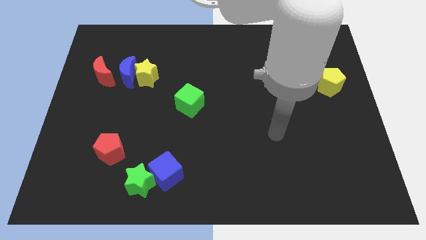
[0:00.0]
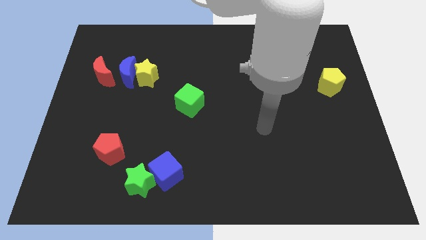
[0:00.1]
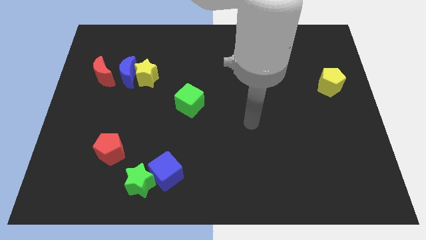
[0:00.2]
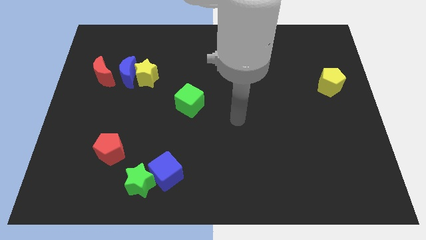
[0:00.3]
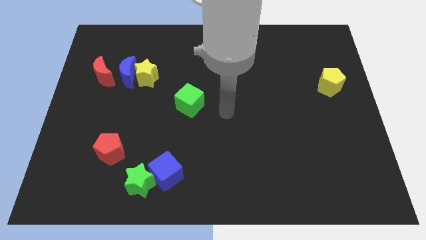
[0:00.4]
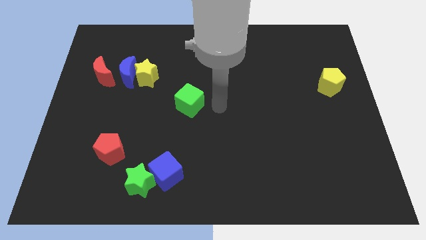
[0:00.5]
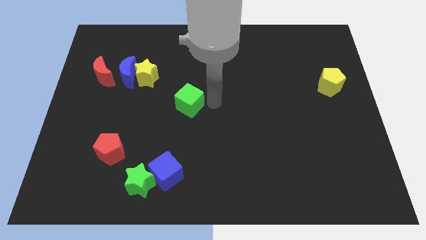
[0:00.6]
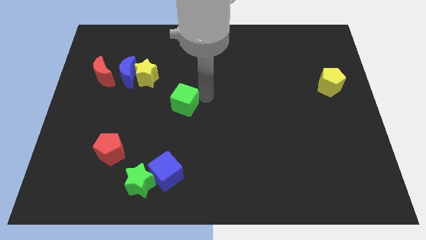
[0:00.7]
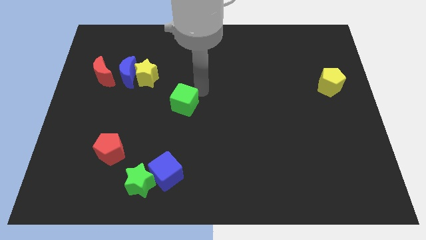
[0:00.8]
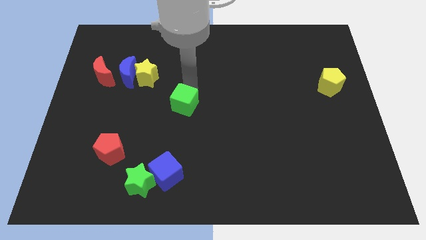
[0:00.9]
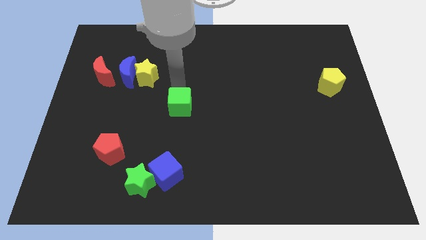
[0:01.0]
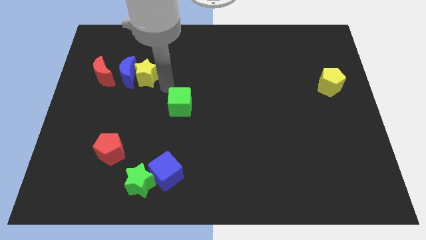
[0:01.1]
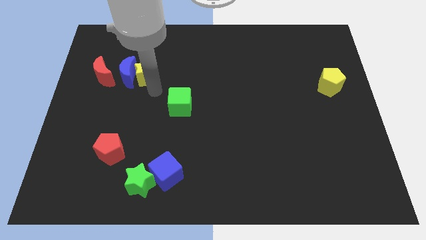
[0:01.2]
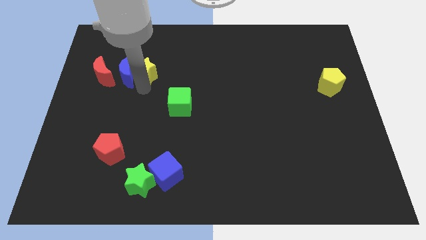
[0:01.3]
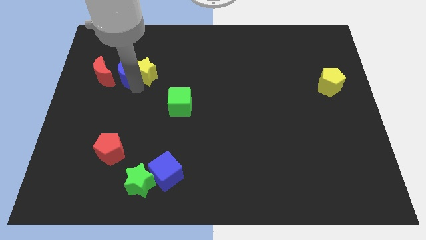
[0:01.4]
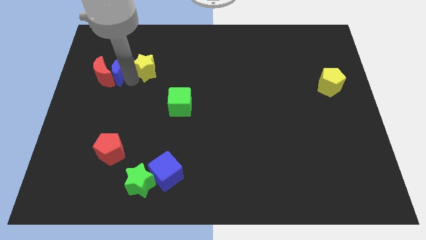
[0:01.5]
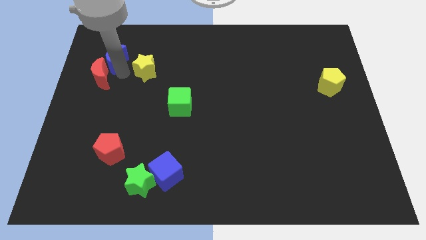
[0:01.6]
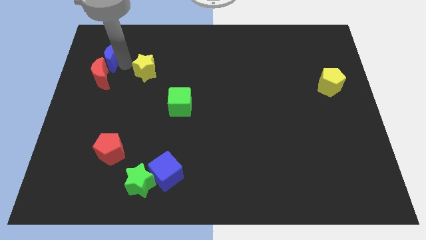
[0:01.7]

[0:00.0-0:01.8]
separate the yellow star from the blue moon

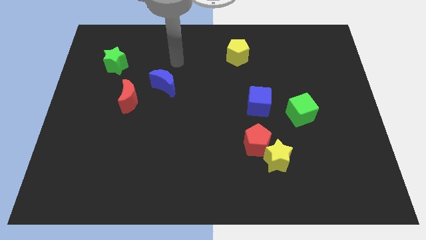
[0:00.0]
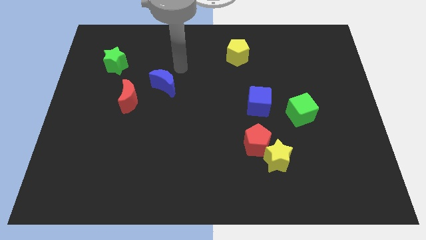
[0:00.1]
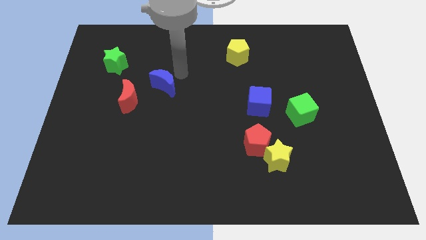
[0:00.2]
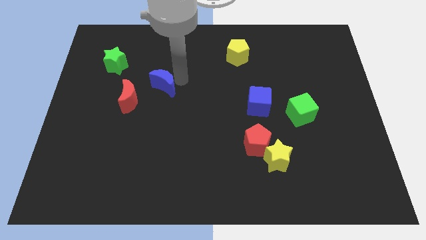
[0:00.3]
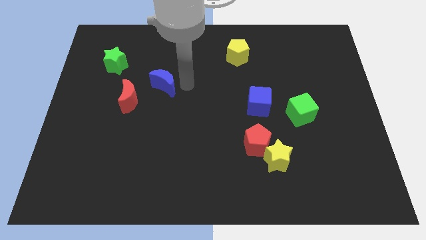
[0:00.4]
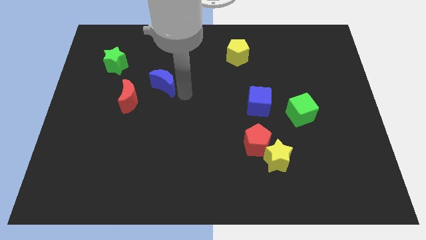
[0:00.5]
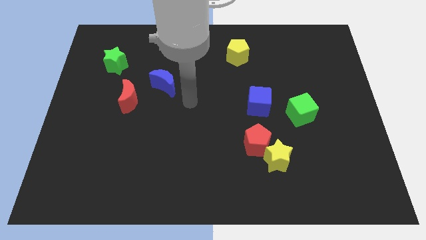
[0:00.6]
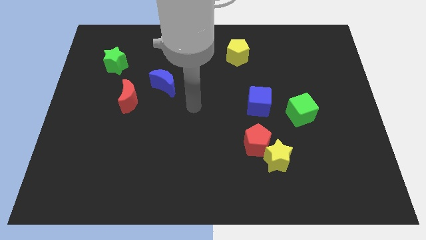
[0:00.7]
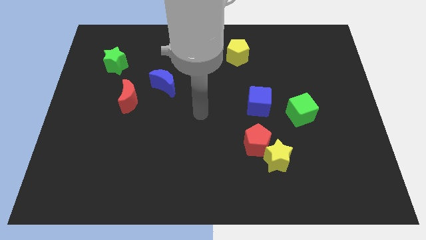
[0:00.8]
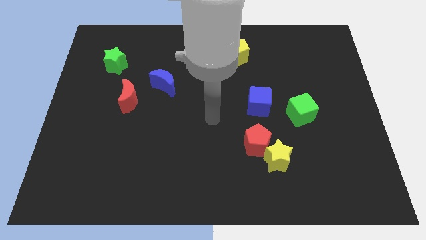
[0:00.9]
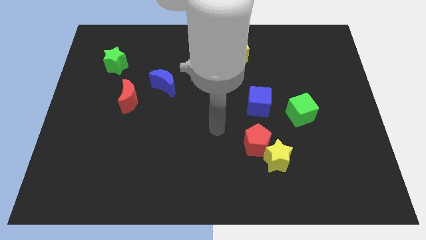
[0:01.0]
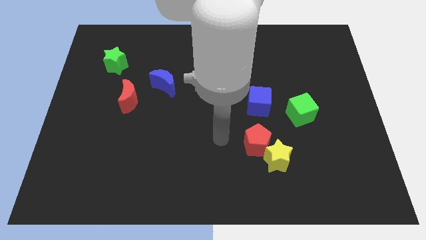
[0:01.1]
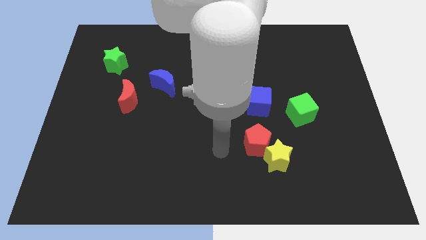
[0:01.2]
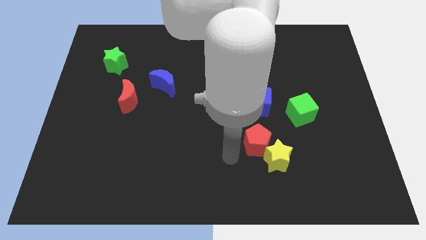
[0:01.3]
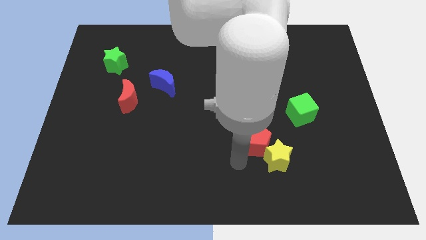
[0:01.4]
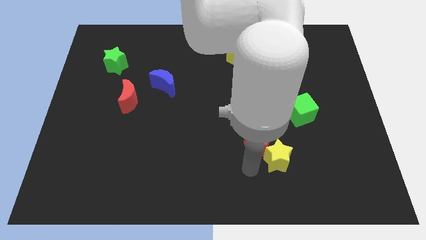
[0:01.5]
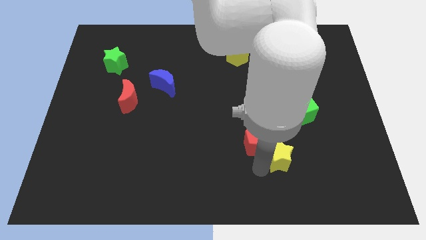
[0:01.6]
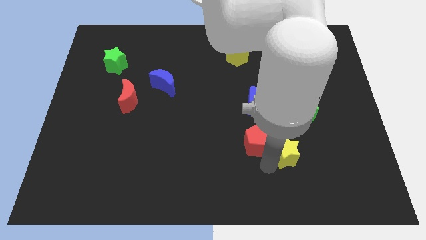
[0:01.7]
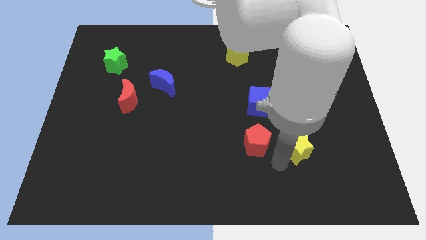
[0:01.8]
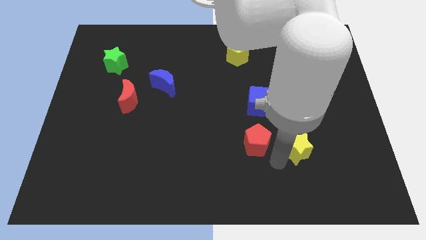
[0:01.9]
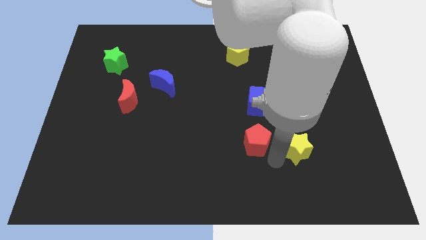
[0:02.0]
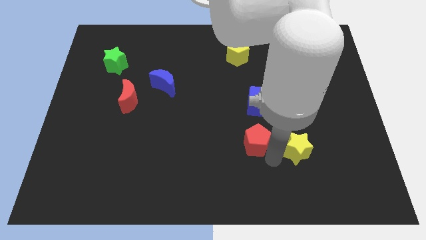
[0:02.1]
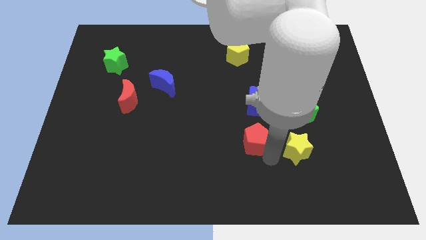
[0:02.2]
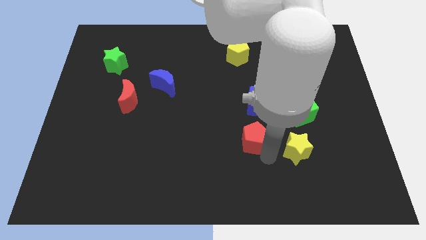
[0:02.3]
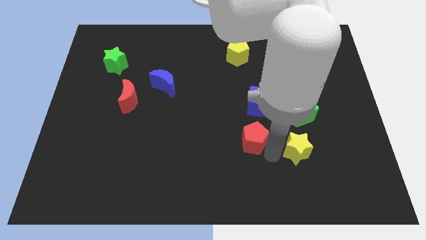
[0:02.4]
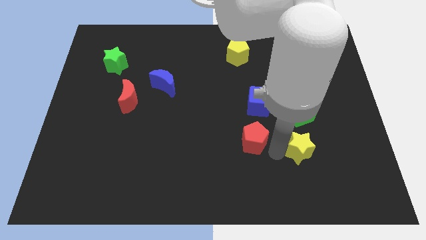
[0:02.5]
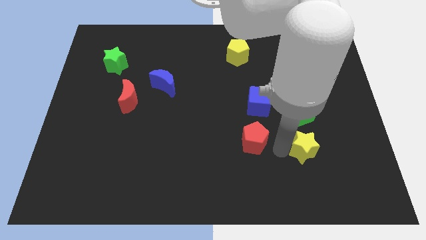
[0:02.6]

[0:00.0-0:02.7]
separate the red pentagon from the yellow star

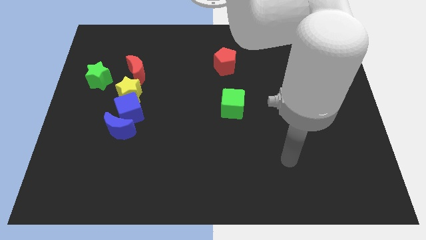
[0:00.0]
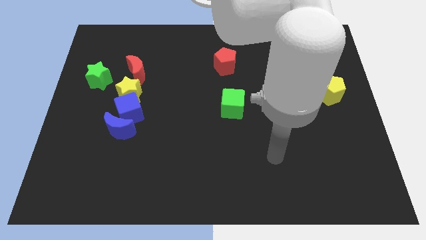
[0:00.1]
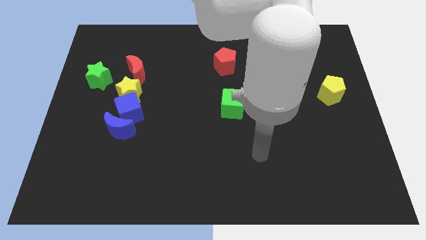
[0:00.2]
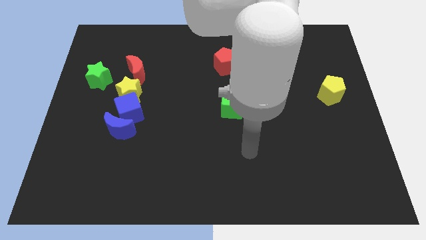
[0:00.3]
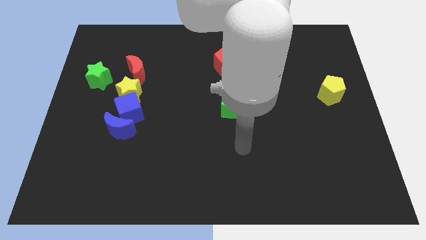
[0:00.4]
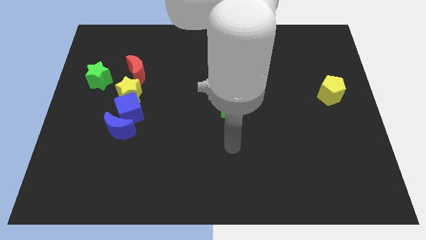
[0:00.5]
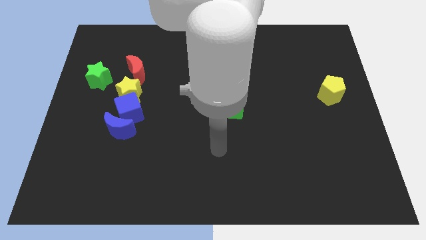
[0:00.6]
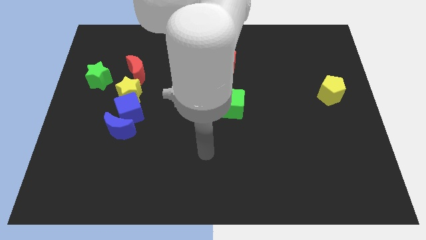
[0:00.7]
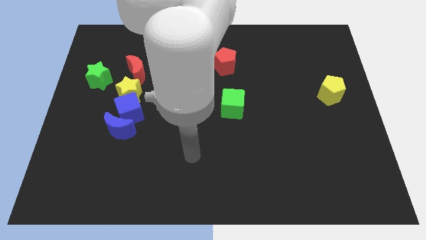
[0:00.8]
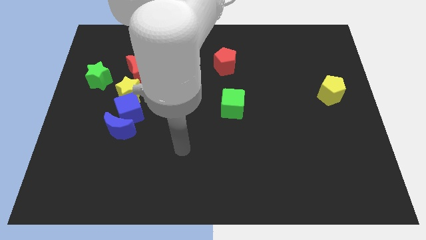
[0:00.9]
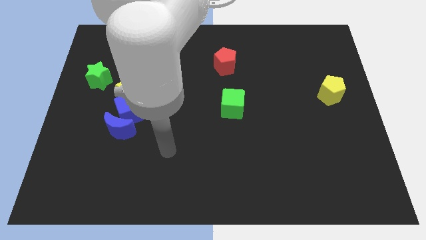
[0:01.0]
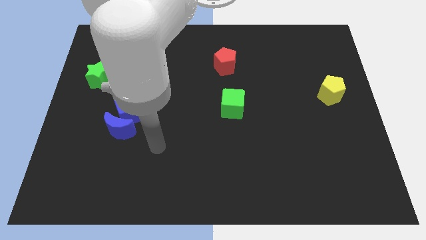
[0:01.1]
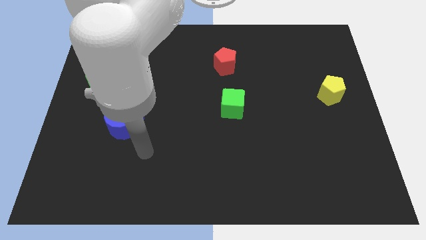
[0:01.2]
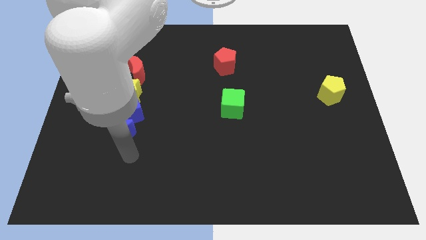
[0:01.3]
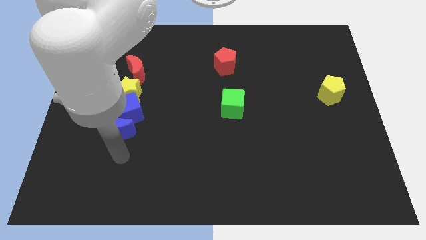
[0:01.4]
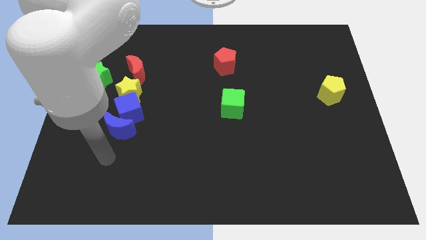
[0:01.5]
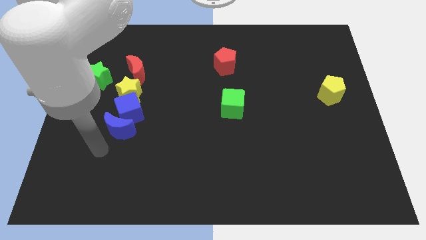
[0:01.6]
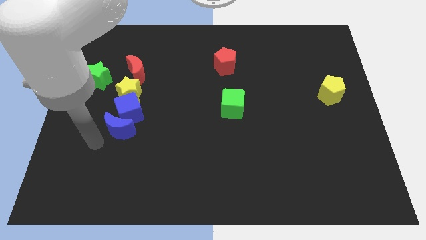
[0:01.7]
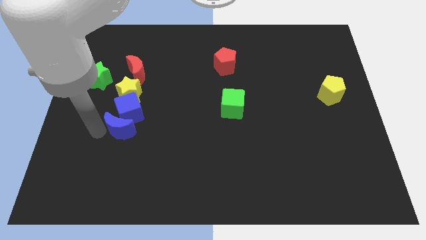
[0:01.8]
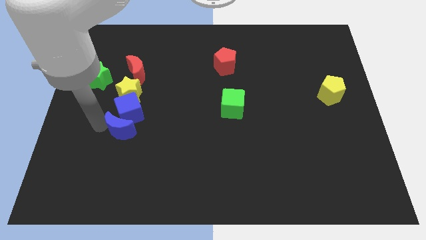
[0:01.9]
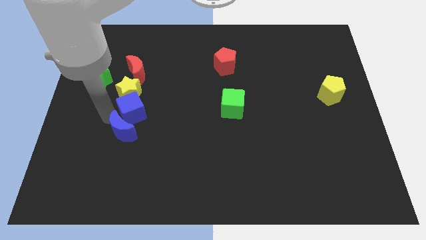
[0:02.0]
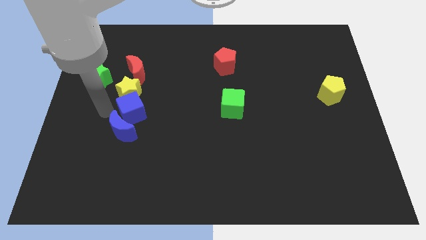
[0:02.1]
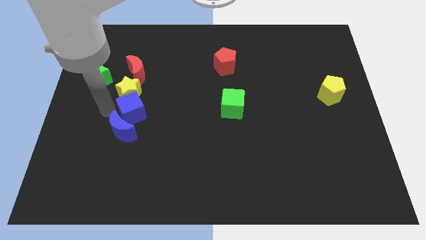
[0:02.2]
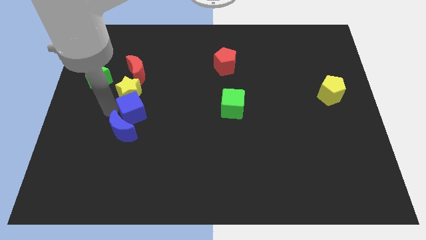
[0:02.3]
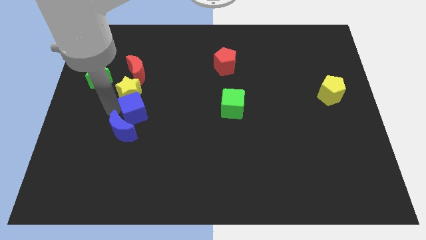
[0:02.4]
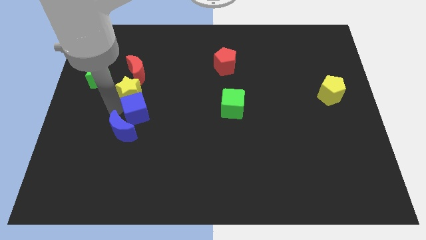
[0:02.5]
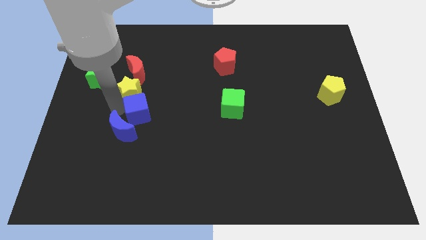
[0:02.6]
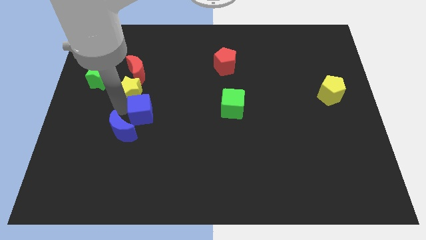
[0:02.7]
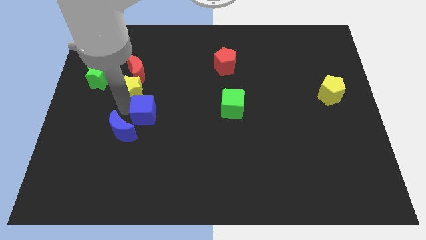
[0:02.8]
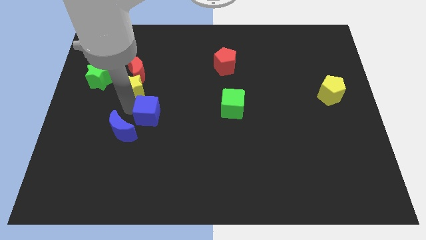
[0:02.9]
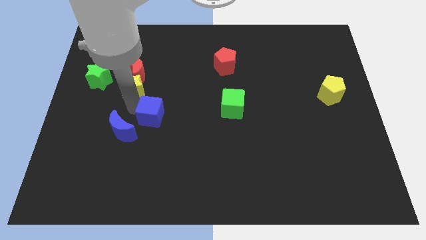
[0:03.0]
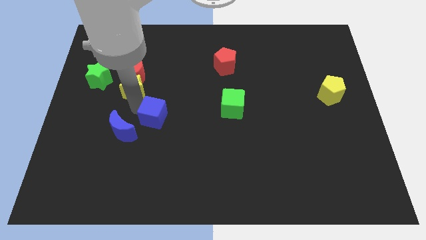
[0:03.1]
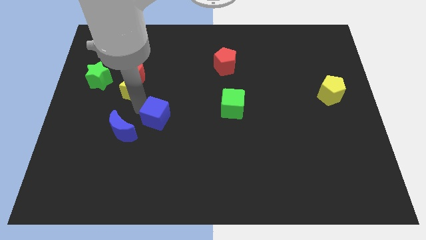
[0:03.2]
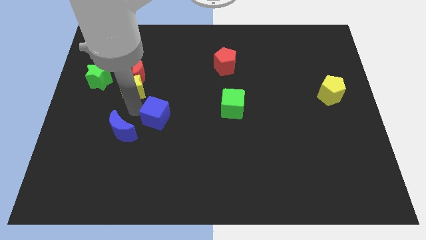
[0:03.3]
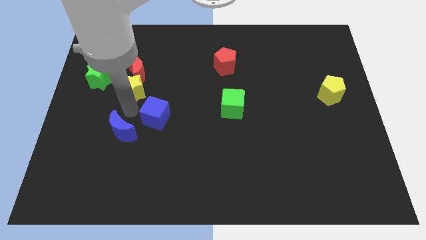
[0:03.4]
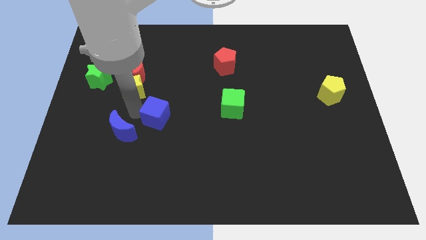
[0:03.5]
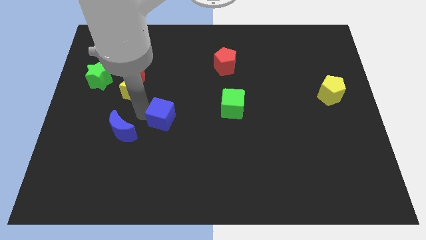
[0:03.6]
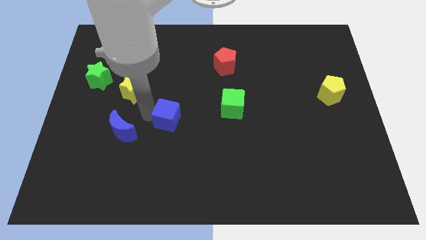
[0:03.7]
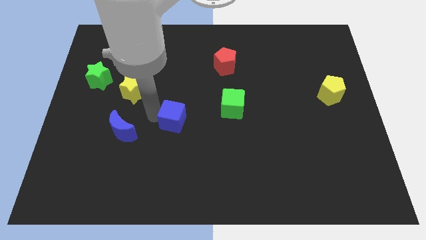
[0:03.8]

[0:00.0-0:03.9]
separate the blue cube from the yellow star and blue moon

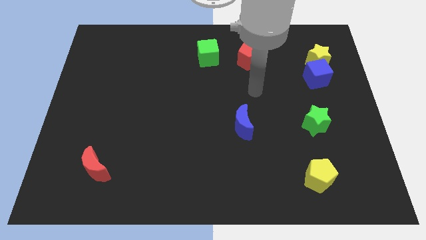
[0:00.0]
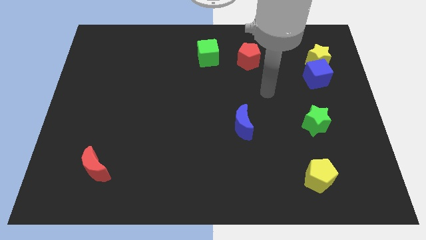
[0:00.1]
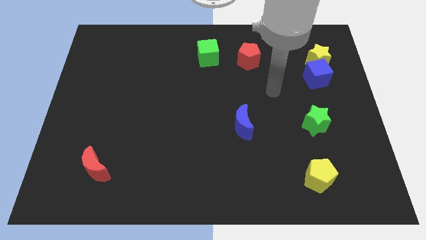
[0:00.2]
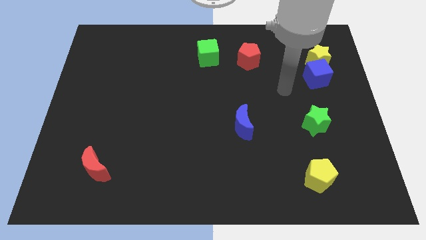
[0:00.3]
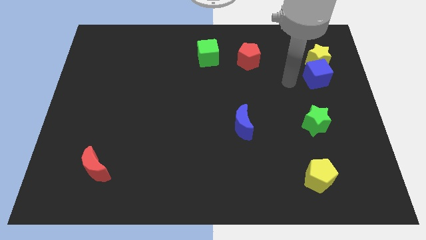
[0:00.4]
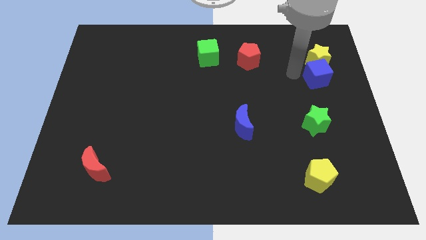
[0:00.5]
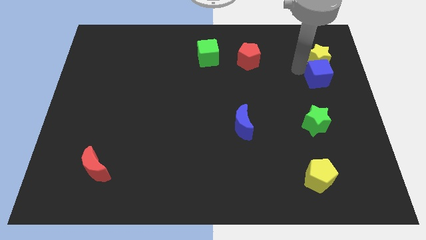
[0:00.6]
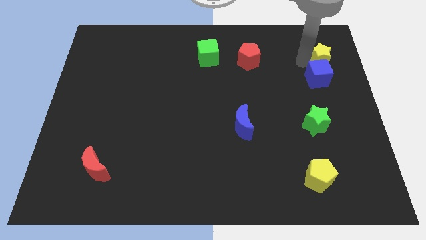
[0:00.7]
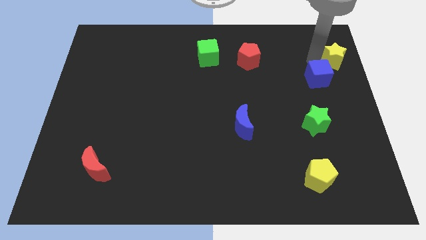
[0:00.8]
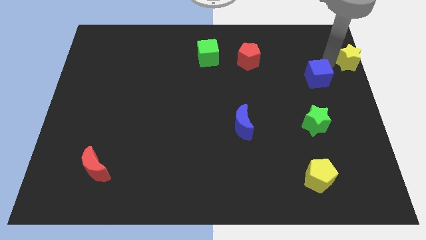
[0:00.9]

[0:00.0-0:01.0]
separate the blue cube from the yellow star
